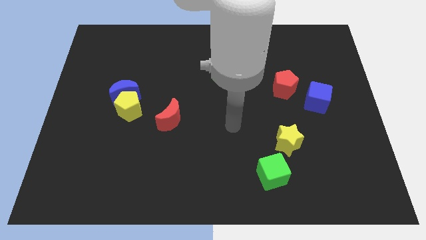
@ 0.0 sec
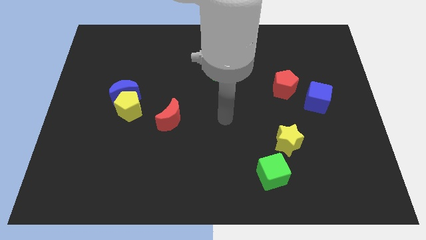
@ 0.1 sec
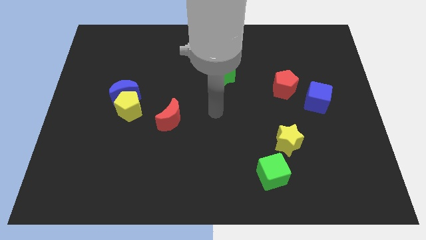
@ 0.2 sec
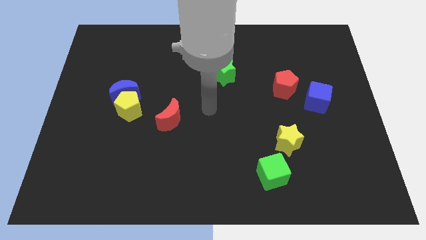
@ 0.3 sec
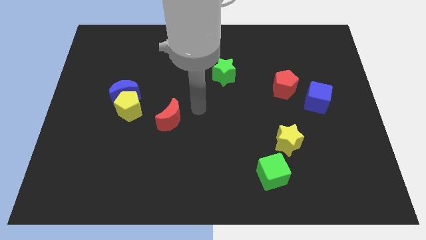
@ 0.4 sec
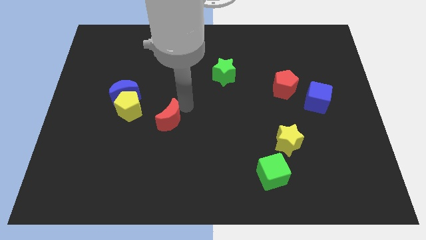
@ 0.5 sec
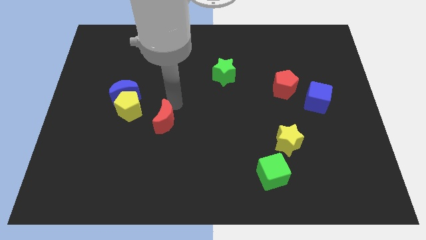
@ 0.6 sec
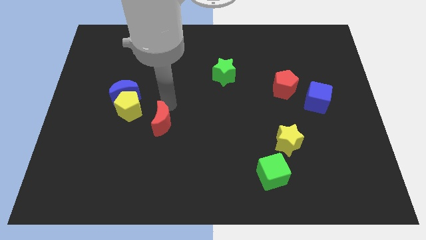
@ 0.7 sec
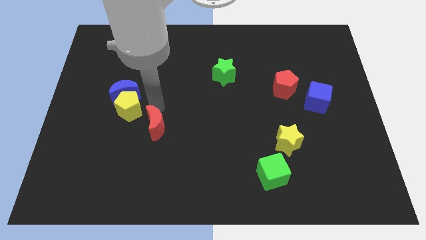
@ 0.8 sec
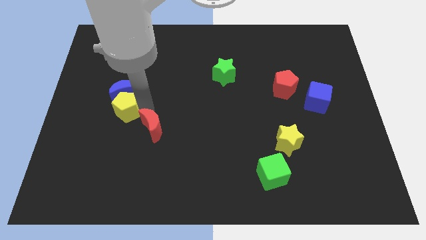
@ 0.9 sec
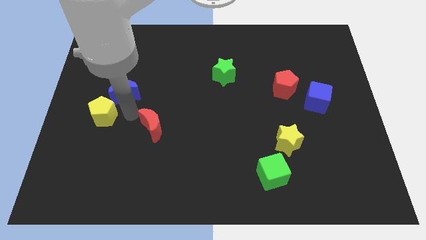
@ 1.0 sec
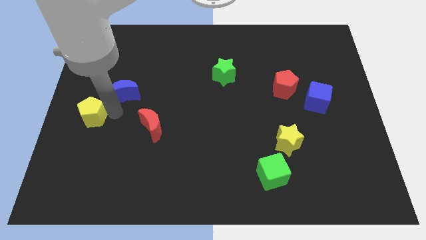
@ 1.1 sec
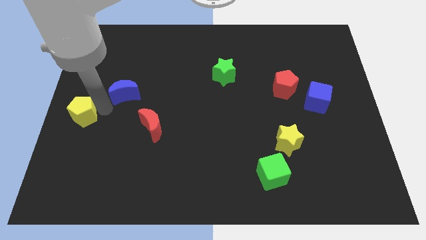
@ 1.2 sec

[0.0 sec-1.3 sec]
pull the blue moon apart from the yellow pentagon

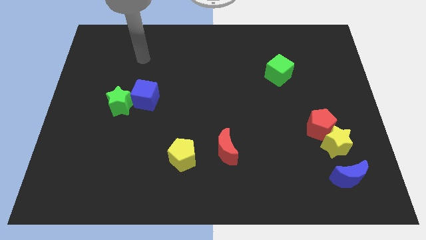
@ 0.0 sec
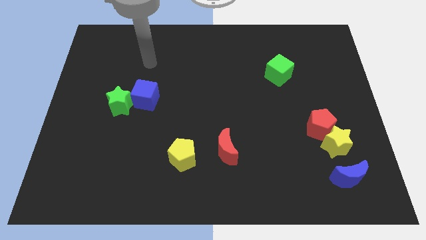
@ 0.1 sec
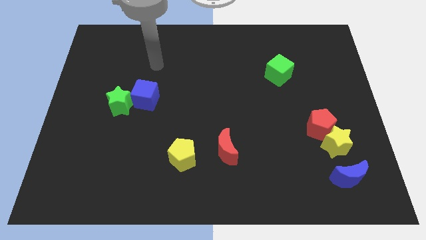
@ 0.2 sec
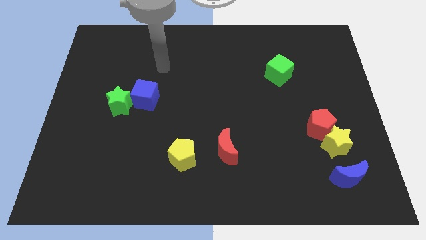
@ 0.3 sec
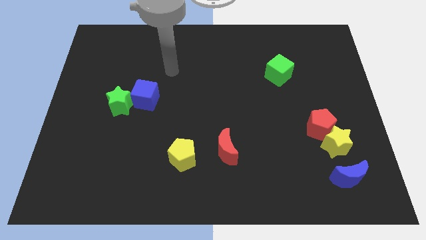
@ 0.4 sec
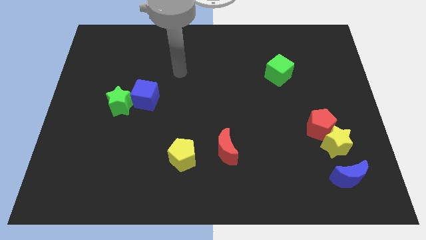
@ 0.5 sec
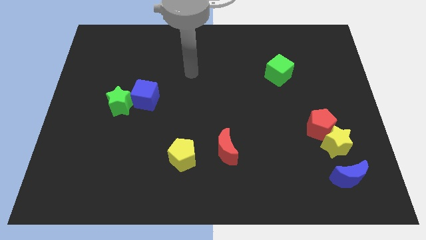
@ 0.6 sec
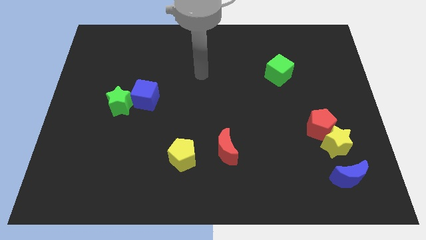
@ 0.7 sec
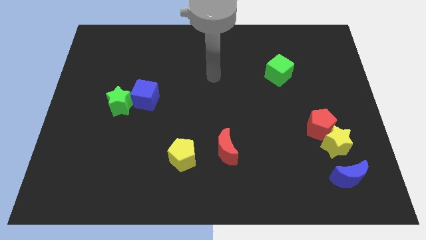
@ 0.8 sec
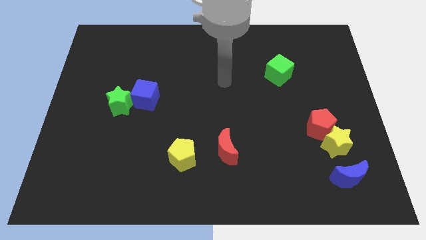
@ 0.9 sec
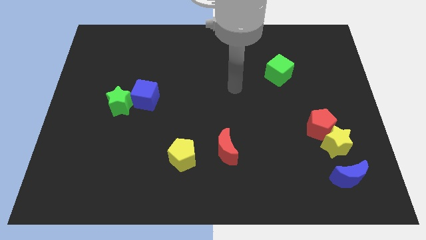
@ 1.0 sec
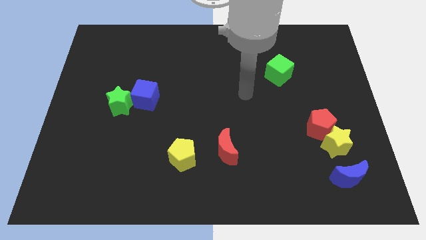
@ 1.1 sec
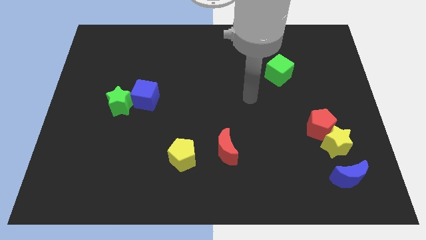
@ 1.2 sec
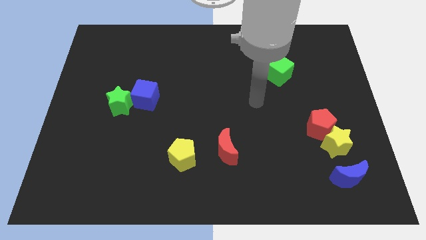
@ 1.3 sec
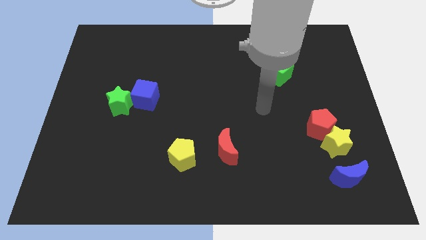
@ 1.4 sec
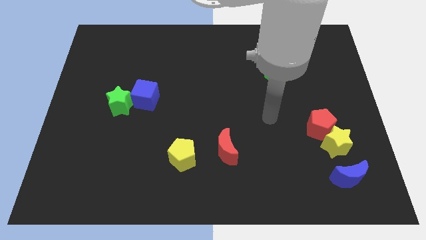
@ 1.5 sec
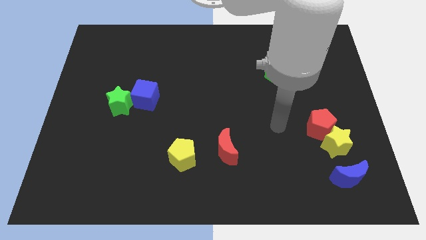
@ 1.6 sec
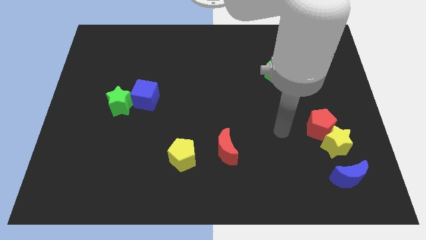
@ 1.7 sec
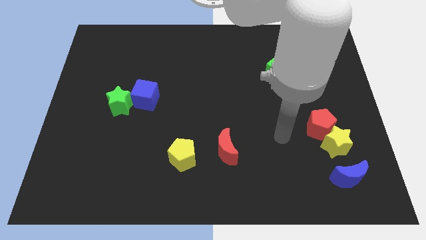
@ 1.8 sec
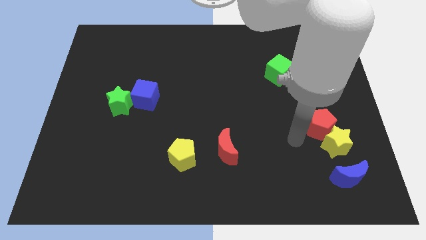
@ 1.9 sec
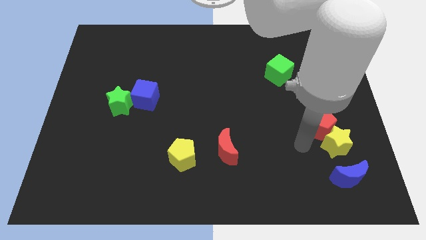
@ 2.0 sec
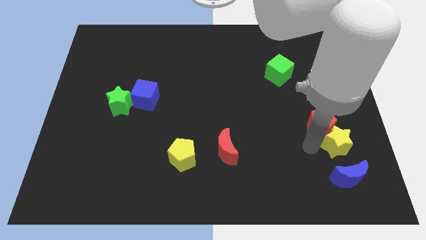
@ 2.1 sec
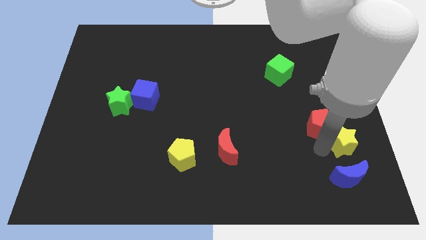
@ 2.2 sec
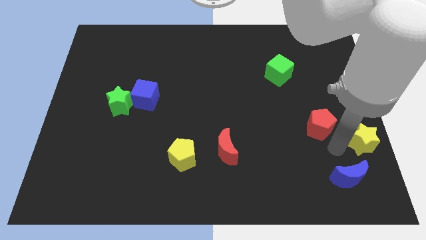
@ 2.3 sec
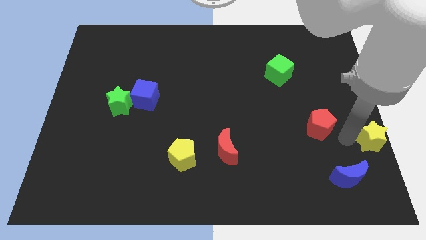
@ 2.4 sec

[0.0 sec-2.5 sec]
move the red pentagon away from the yellow star

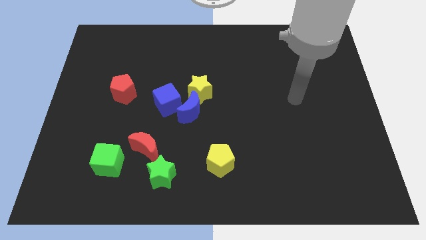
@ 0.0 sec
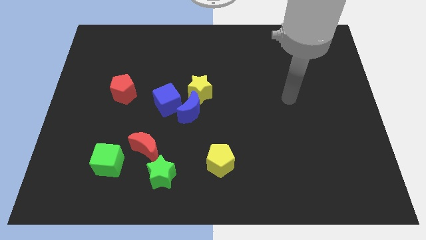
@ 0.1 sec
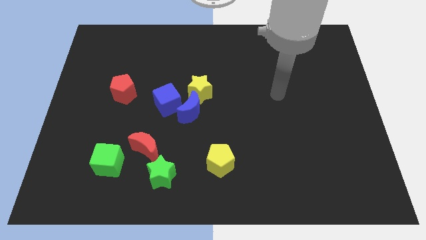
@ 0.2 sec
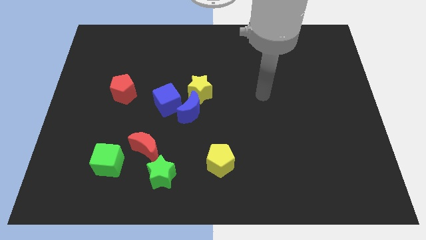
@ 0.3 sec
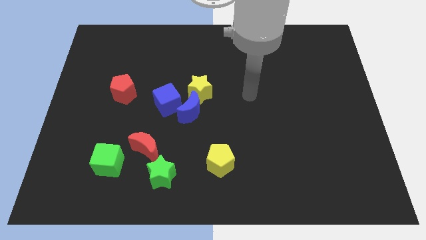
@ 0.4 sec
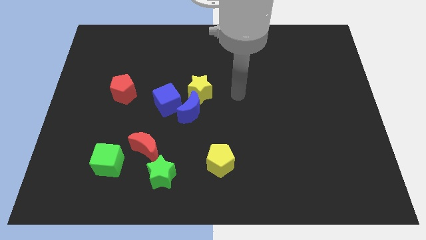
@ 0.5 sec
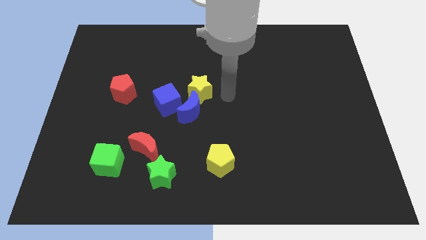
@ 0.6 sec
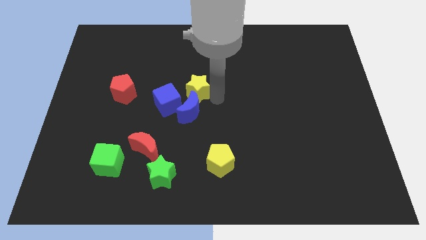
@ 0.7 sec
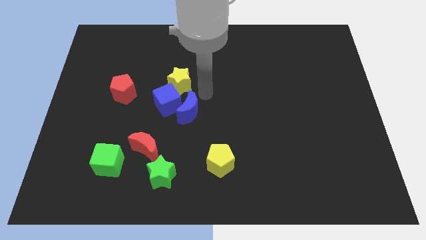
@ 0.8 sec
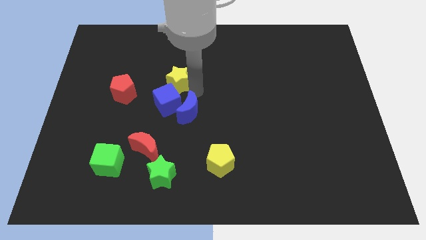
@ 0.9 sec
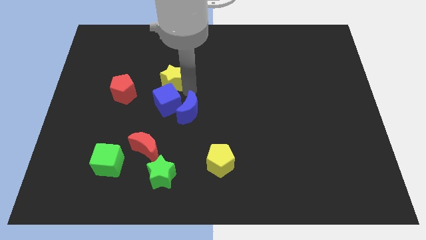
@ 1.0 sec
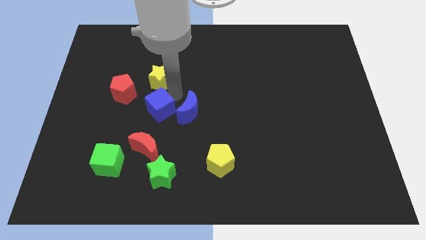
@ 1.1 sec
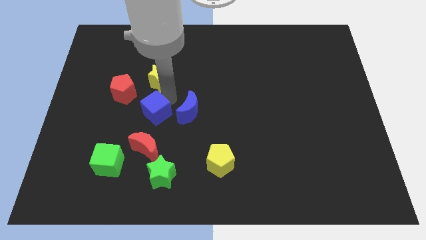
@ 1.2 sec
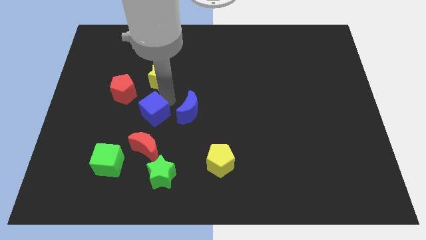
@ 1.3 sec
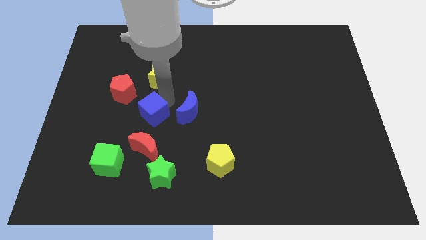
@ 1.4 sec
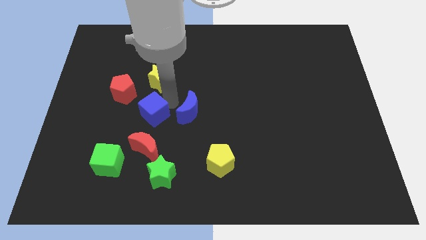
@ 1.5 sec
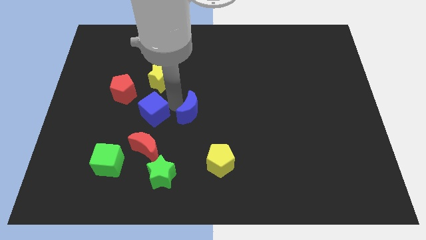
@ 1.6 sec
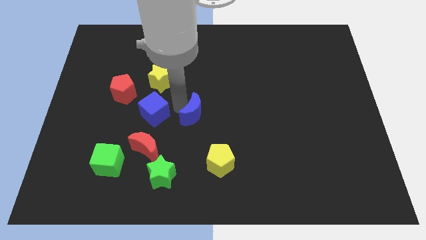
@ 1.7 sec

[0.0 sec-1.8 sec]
move the blue moon away from the yellow star and blue cube

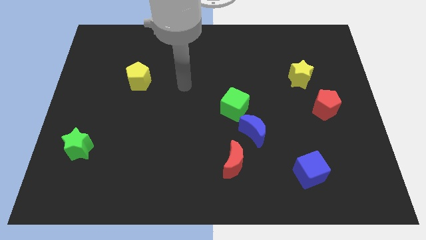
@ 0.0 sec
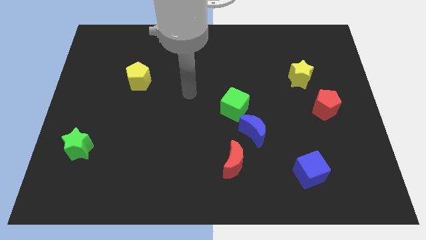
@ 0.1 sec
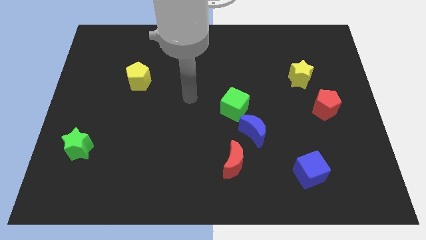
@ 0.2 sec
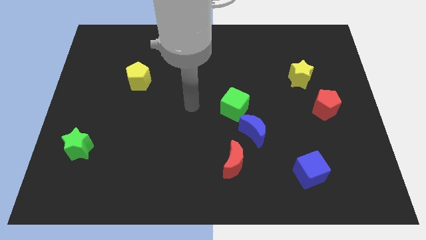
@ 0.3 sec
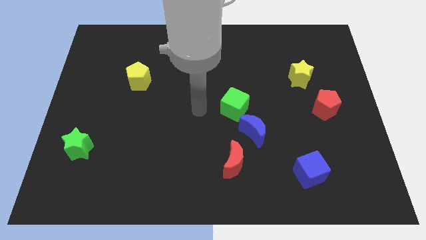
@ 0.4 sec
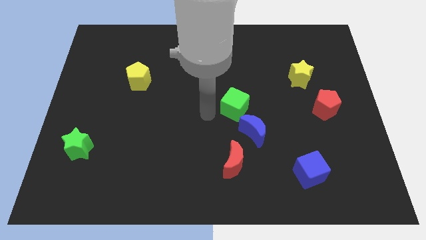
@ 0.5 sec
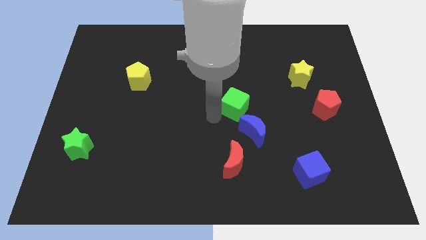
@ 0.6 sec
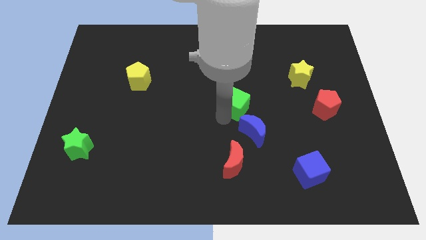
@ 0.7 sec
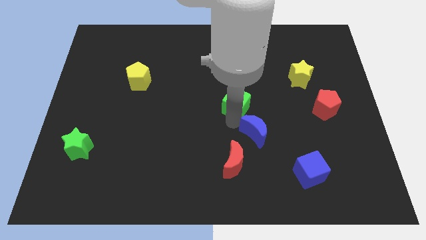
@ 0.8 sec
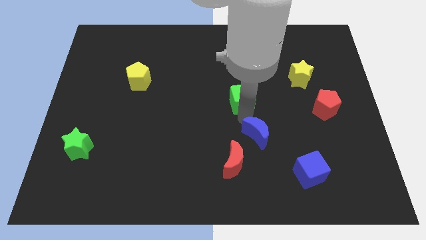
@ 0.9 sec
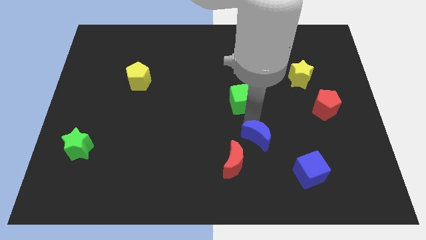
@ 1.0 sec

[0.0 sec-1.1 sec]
pull the green cube apart from the blue moon

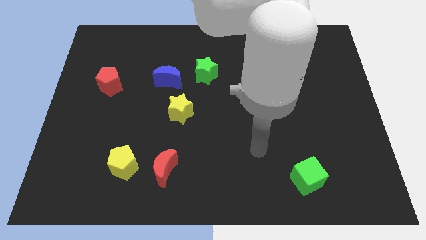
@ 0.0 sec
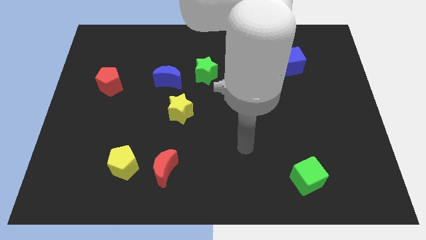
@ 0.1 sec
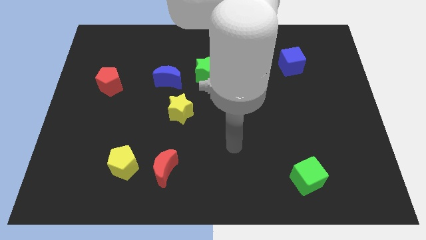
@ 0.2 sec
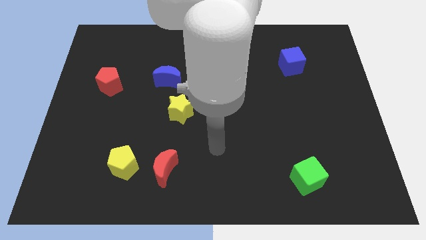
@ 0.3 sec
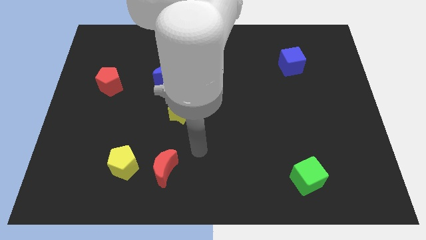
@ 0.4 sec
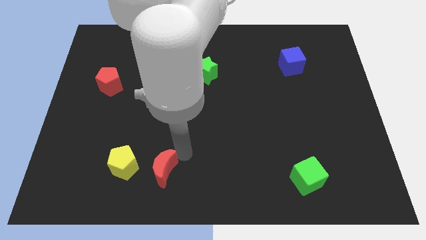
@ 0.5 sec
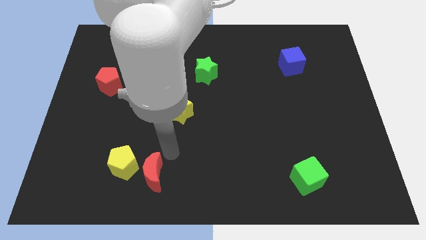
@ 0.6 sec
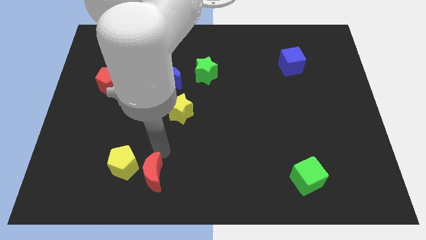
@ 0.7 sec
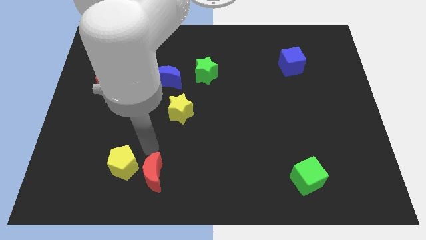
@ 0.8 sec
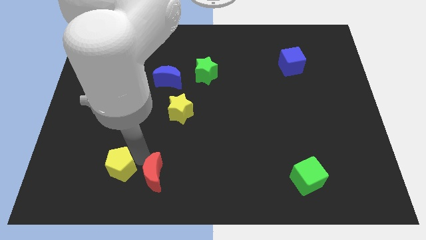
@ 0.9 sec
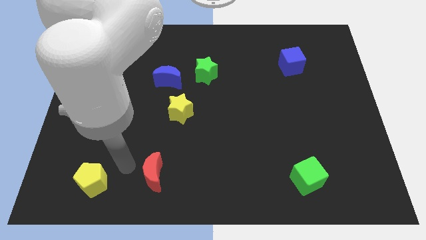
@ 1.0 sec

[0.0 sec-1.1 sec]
move the red moon away from the yellow pentagon

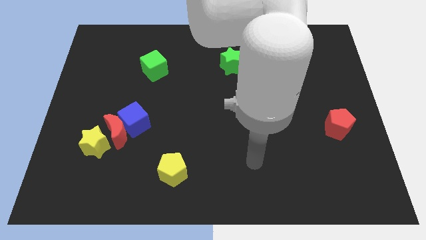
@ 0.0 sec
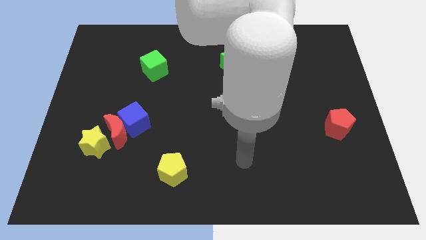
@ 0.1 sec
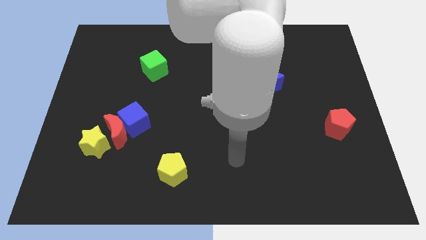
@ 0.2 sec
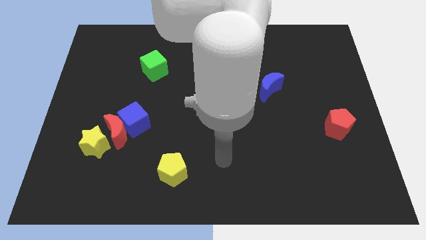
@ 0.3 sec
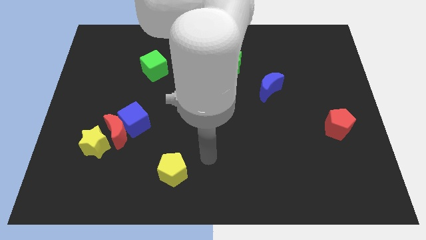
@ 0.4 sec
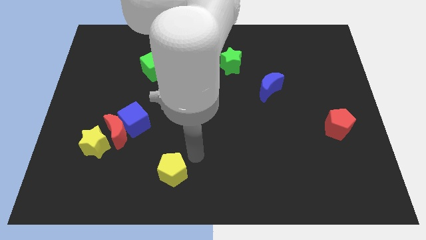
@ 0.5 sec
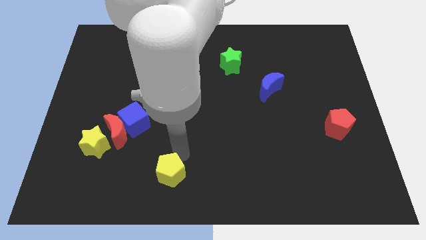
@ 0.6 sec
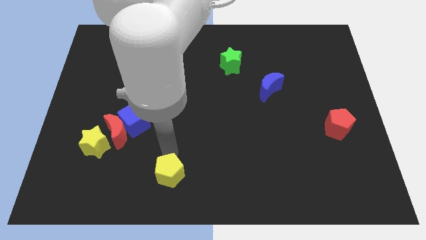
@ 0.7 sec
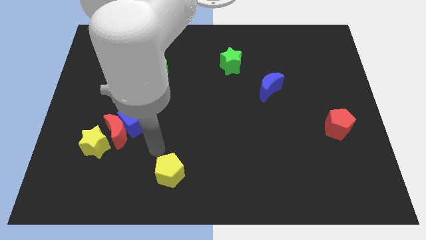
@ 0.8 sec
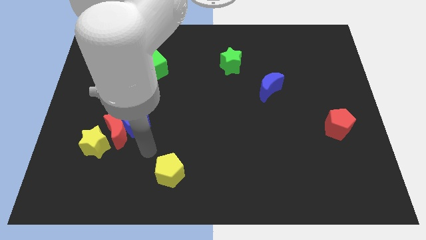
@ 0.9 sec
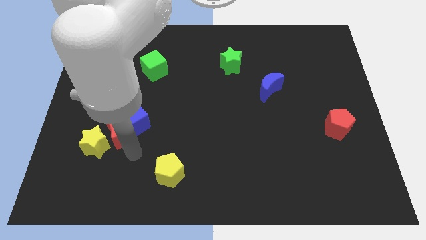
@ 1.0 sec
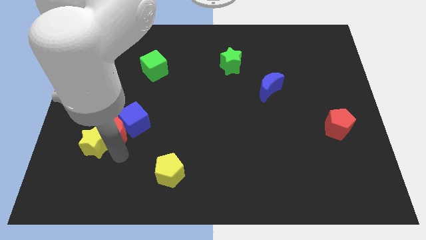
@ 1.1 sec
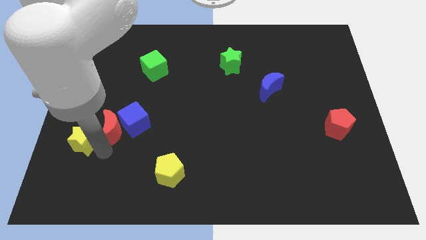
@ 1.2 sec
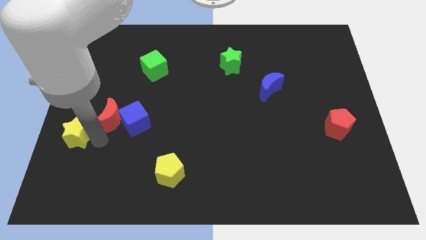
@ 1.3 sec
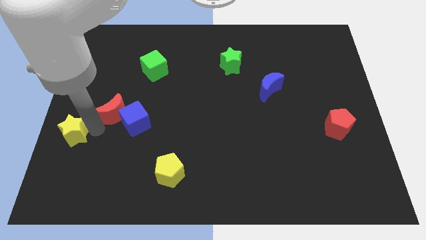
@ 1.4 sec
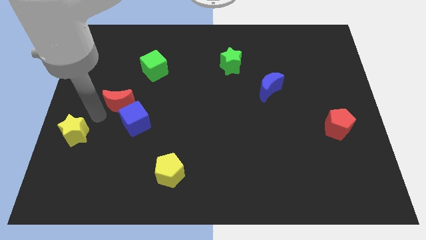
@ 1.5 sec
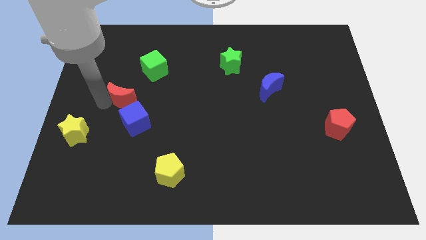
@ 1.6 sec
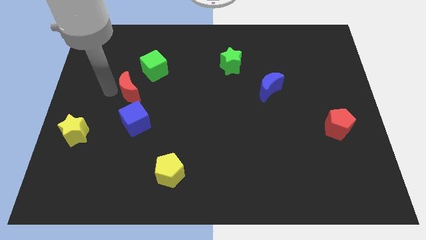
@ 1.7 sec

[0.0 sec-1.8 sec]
pull the red moon apart from the blue cube and yellow star
